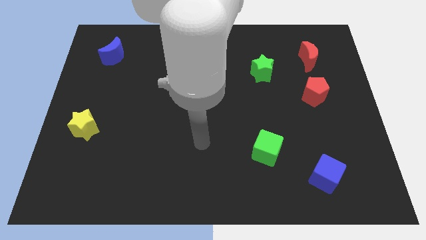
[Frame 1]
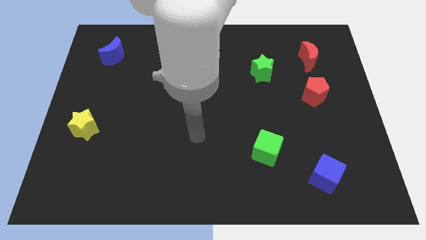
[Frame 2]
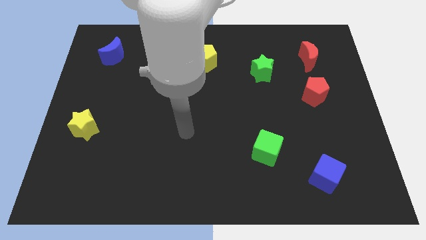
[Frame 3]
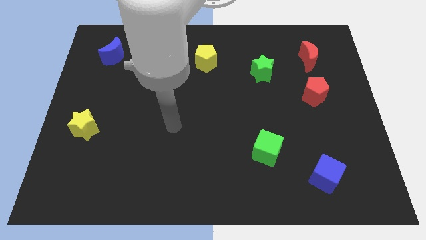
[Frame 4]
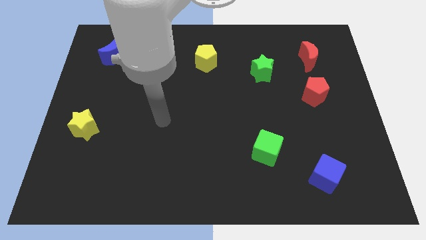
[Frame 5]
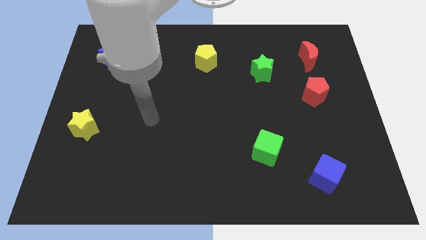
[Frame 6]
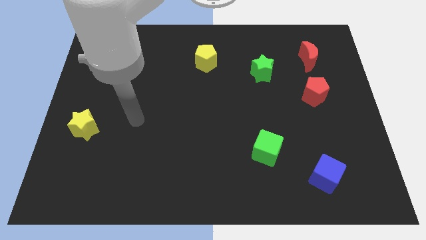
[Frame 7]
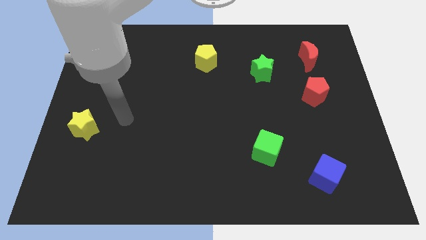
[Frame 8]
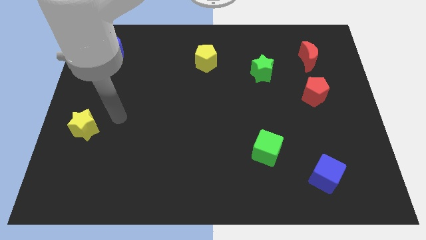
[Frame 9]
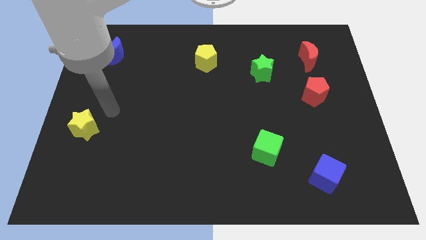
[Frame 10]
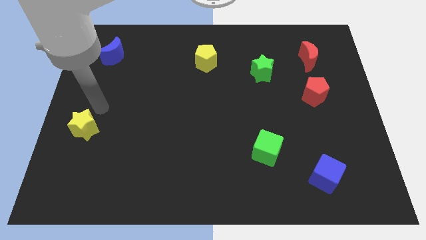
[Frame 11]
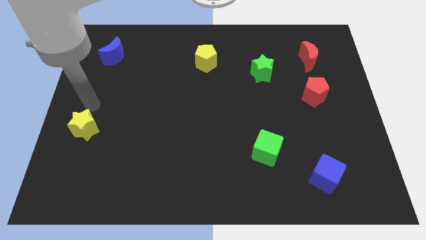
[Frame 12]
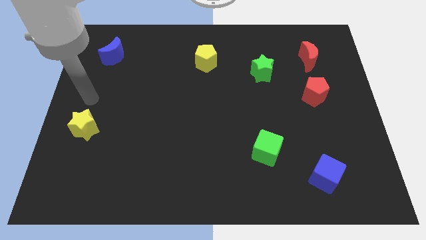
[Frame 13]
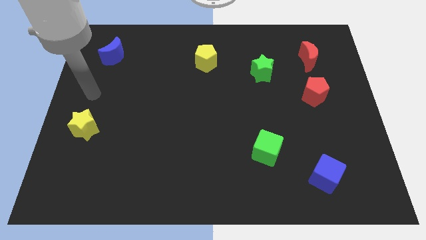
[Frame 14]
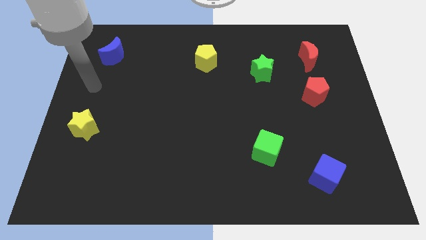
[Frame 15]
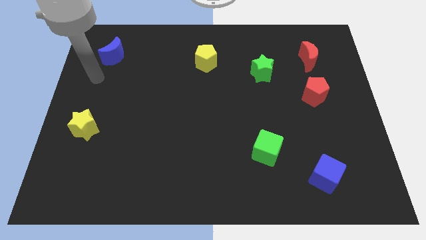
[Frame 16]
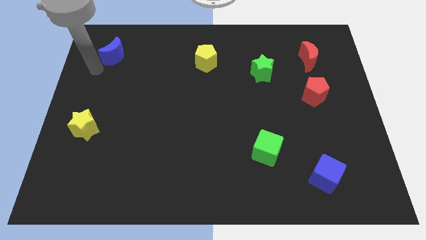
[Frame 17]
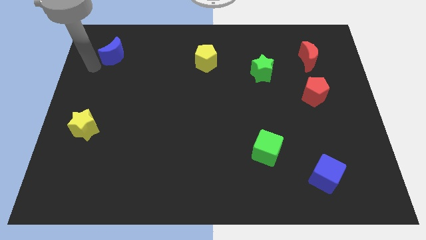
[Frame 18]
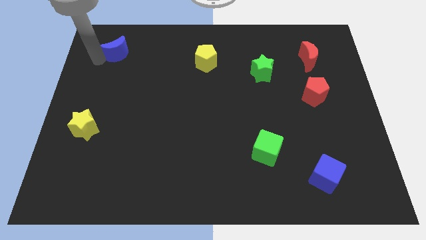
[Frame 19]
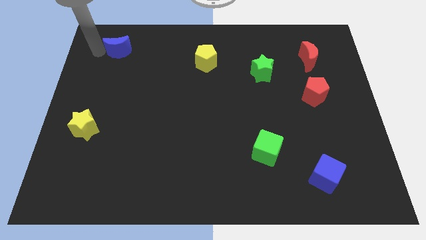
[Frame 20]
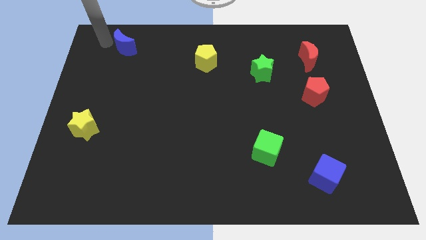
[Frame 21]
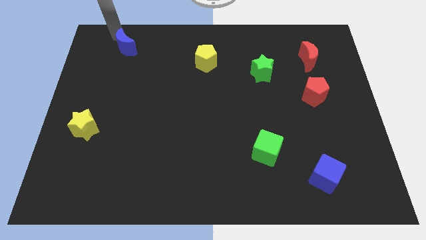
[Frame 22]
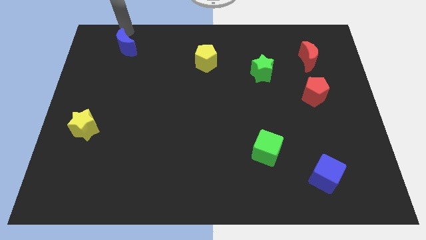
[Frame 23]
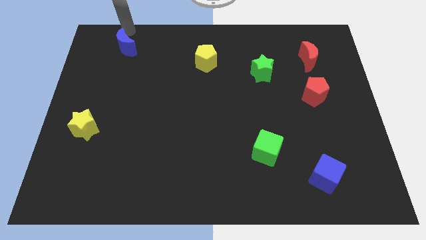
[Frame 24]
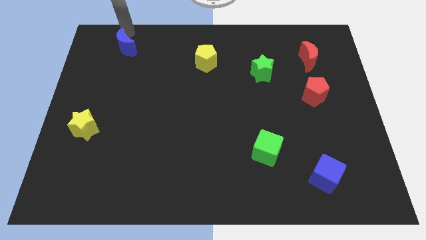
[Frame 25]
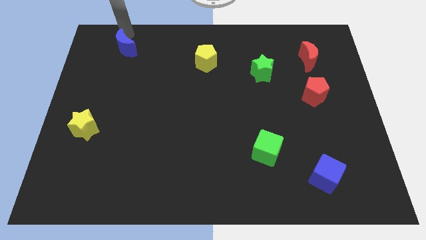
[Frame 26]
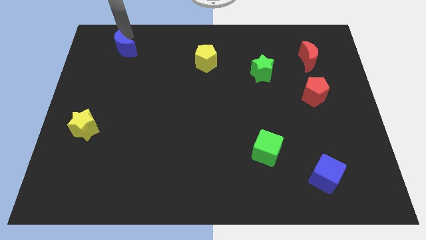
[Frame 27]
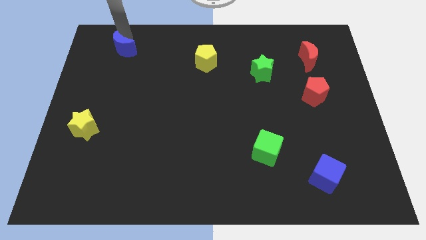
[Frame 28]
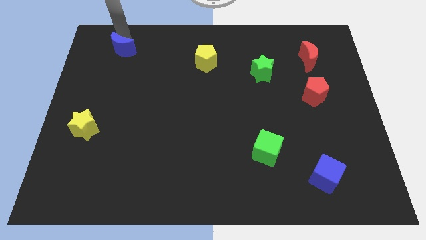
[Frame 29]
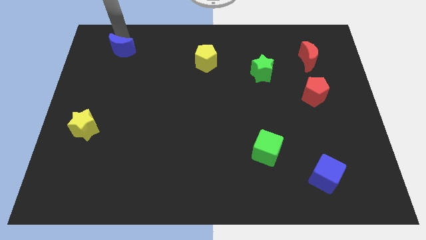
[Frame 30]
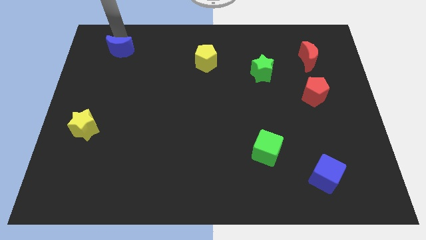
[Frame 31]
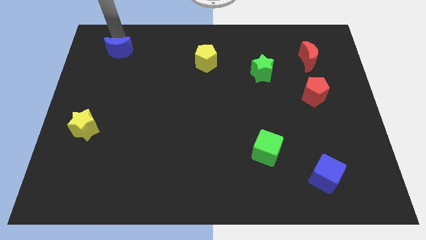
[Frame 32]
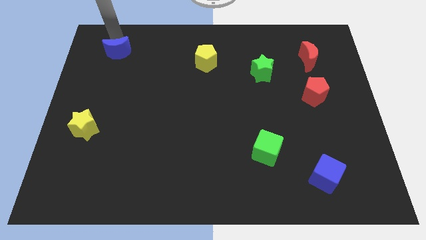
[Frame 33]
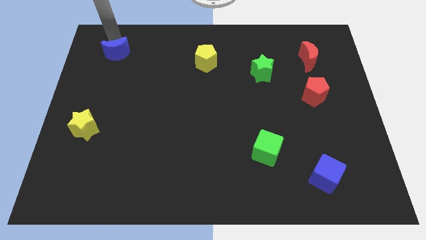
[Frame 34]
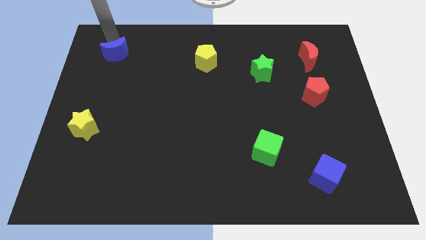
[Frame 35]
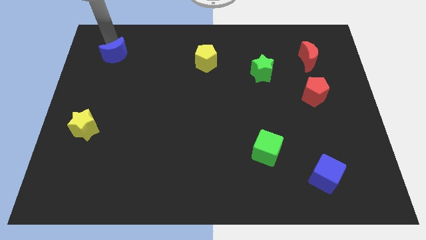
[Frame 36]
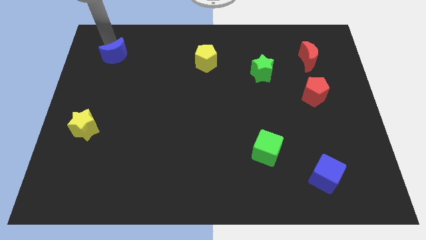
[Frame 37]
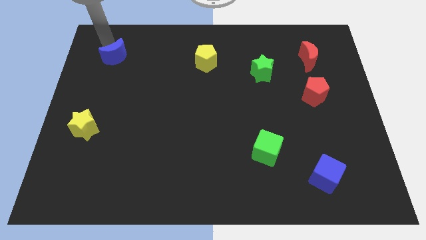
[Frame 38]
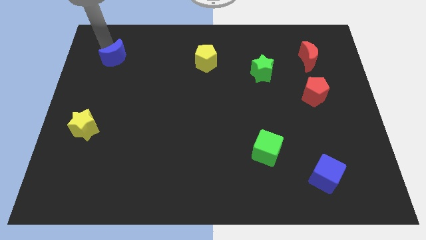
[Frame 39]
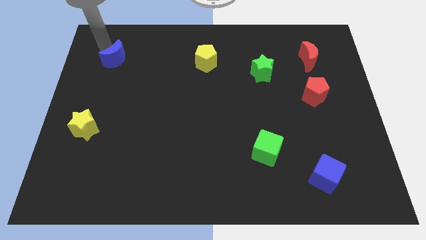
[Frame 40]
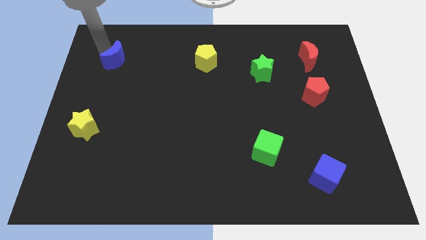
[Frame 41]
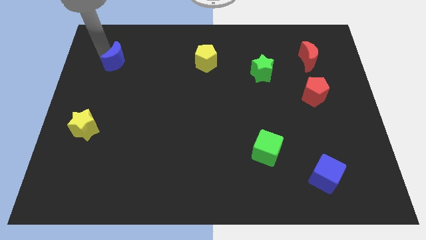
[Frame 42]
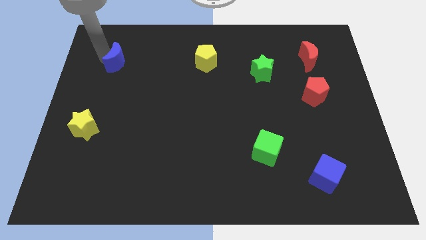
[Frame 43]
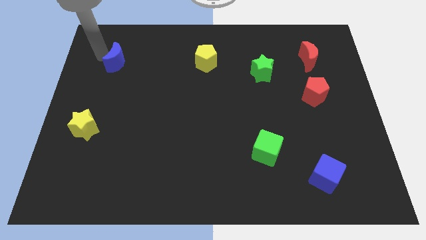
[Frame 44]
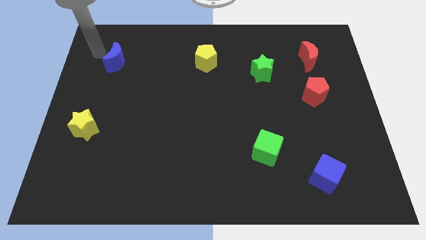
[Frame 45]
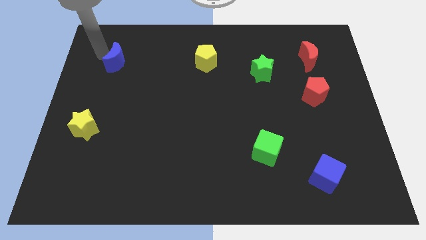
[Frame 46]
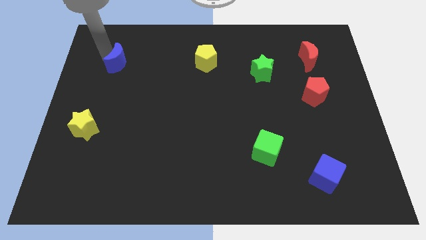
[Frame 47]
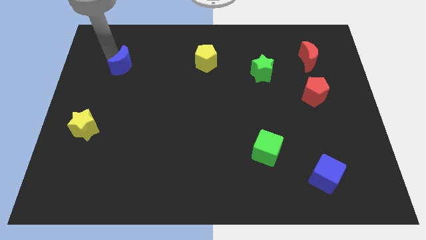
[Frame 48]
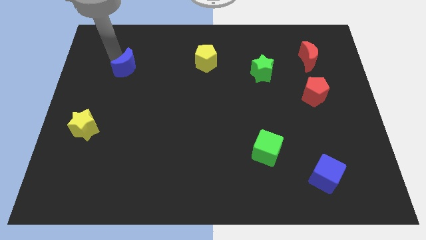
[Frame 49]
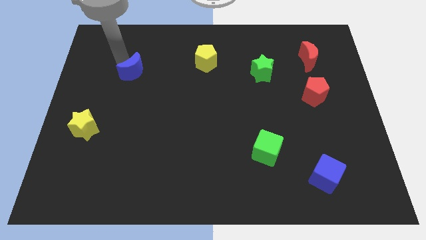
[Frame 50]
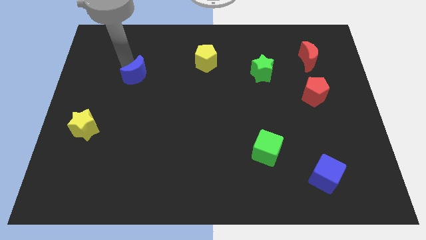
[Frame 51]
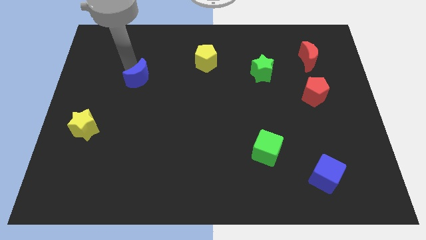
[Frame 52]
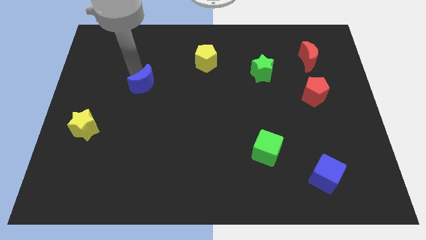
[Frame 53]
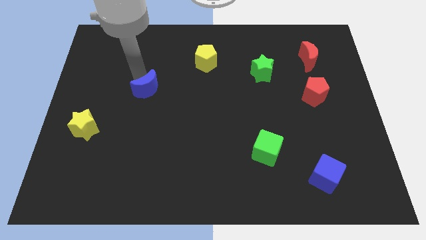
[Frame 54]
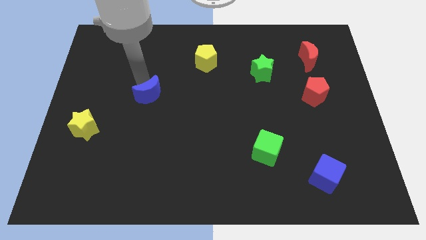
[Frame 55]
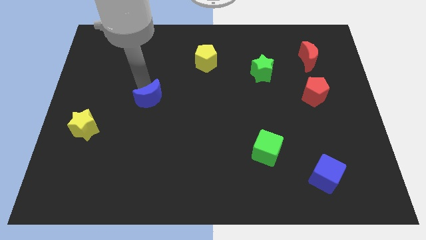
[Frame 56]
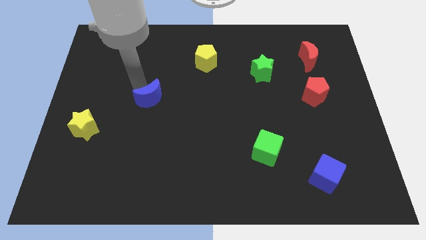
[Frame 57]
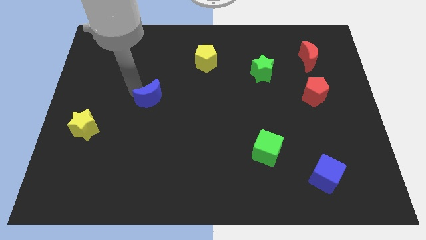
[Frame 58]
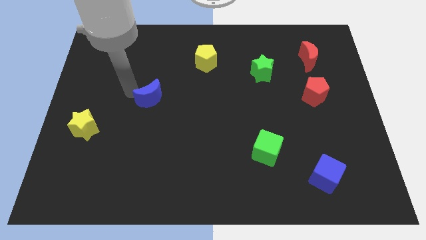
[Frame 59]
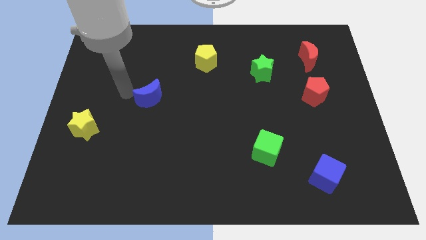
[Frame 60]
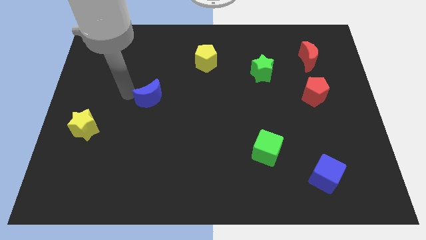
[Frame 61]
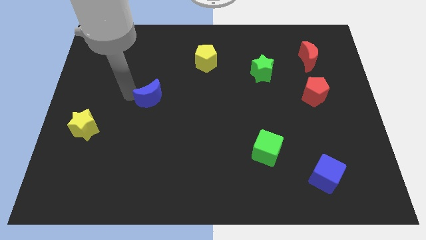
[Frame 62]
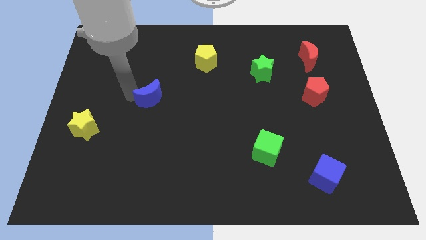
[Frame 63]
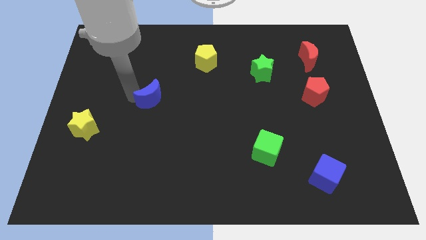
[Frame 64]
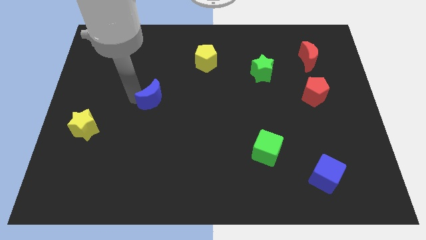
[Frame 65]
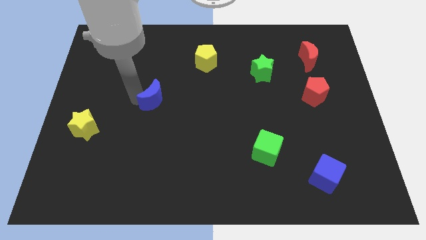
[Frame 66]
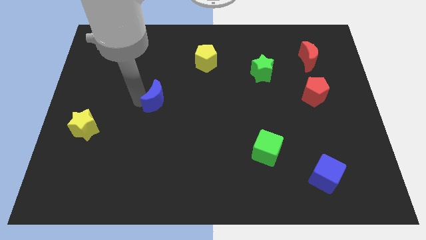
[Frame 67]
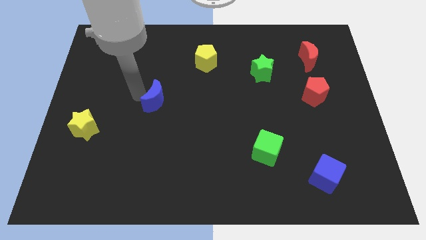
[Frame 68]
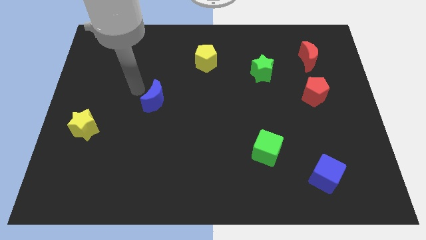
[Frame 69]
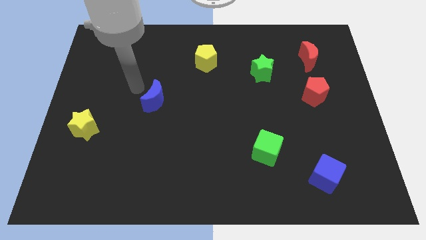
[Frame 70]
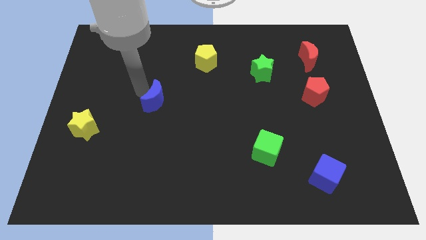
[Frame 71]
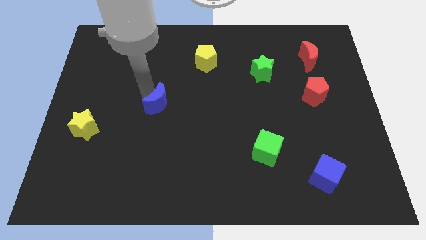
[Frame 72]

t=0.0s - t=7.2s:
move the blue moon downwards and then to the right

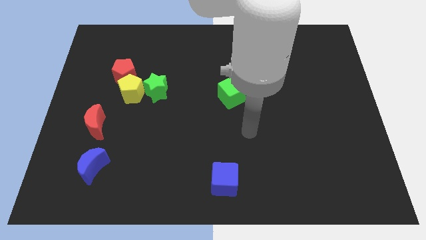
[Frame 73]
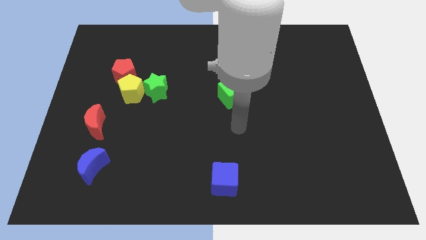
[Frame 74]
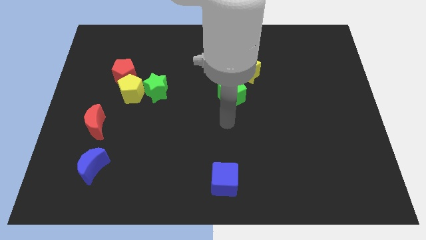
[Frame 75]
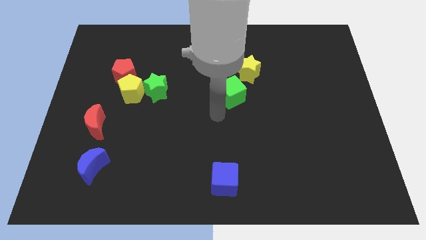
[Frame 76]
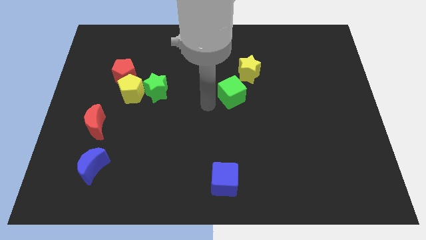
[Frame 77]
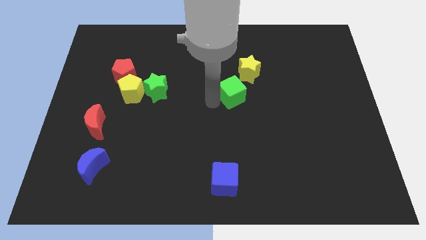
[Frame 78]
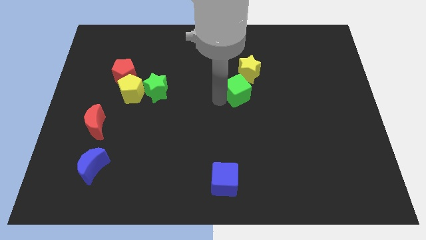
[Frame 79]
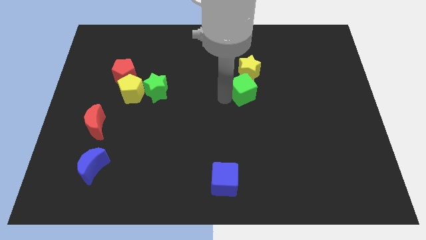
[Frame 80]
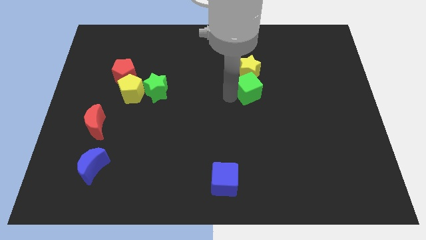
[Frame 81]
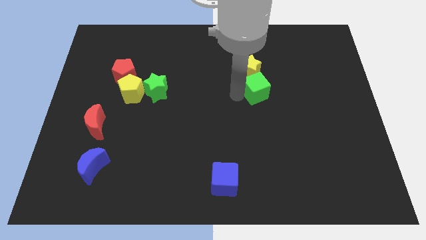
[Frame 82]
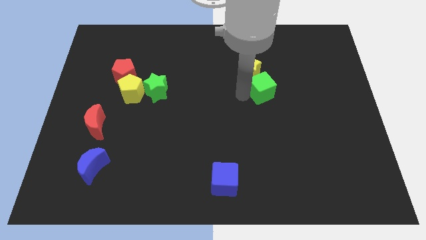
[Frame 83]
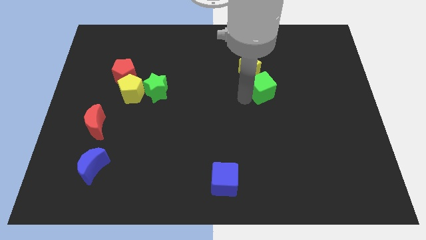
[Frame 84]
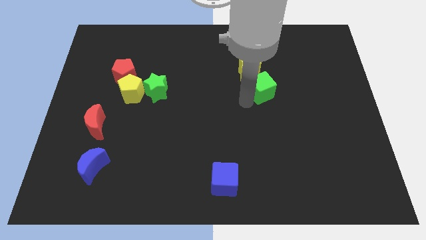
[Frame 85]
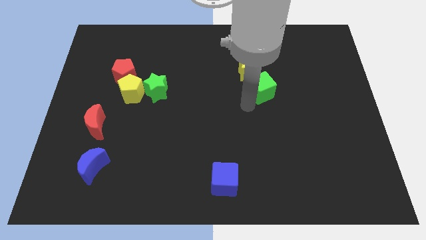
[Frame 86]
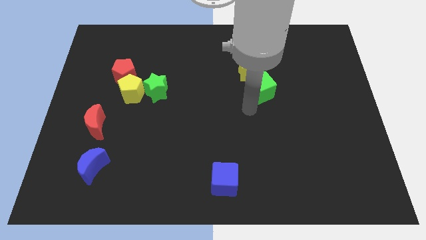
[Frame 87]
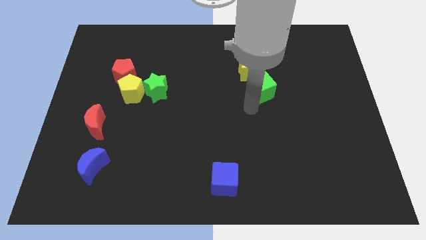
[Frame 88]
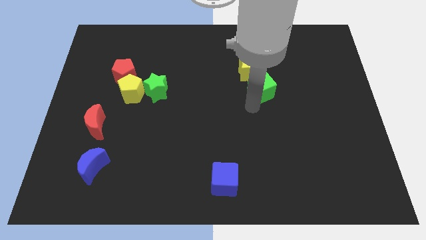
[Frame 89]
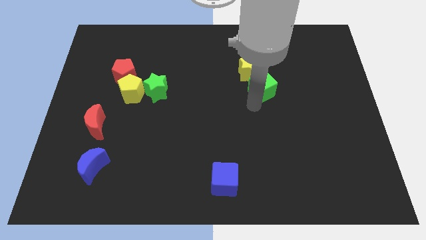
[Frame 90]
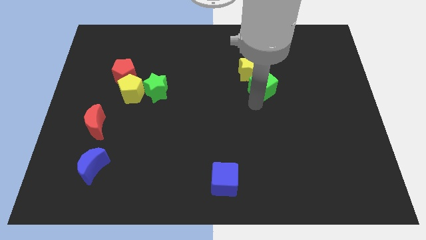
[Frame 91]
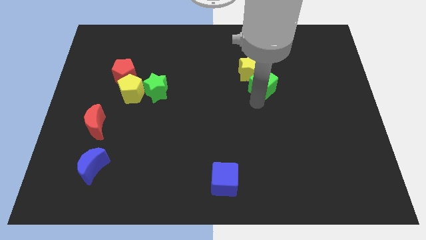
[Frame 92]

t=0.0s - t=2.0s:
push the green cube a little upwards and to the right diagonally
